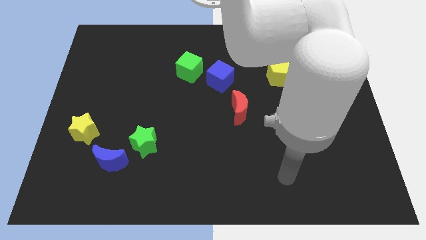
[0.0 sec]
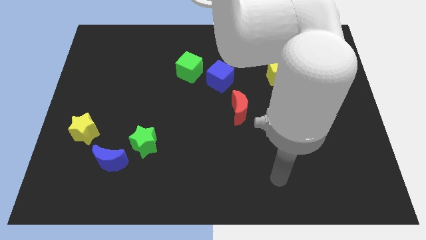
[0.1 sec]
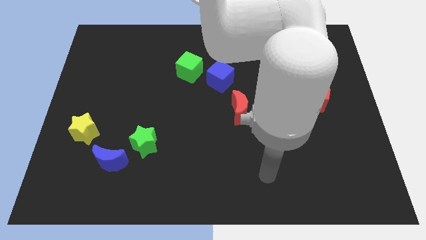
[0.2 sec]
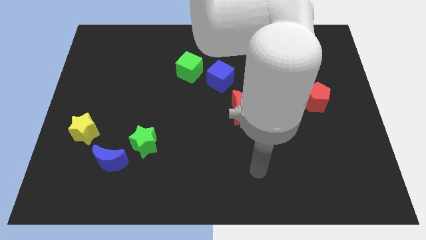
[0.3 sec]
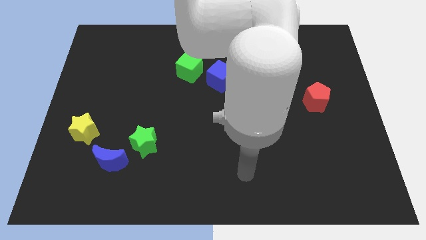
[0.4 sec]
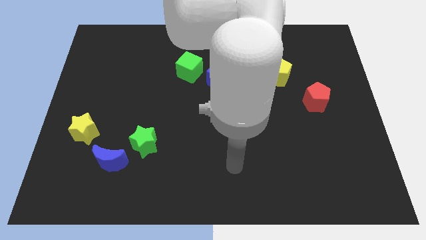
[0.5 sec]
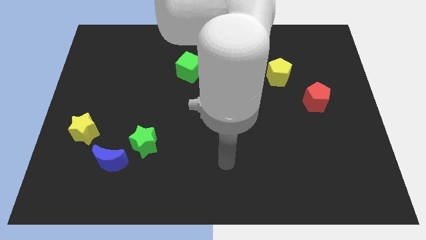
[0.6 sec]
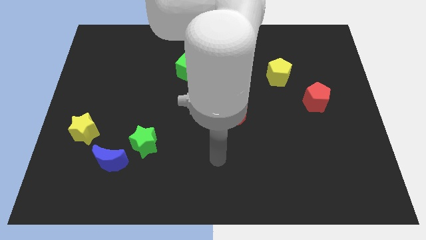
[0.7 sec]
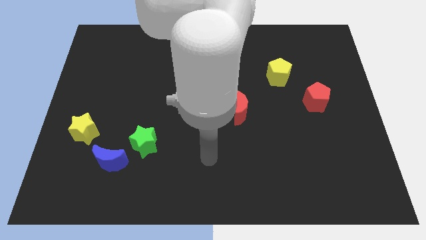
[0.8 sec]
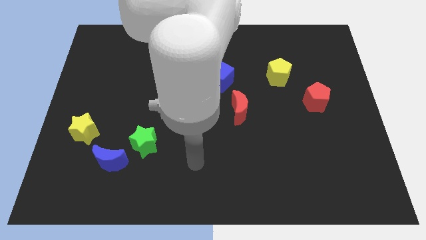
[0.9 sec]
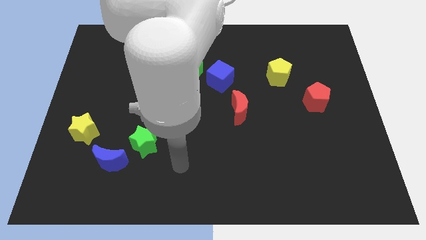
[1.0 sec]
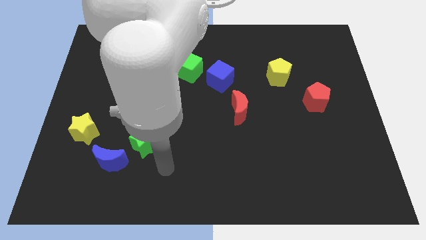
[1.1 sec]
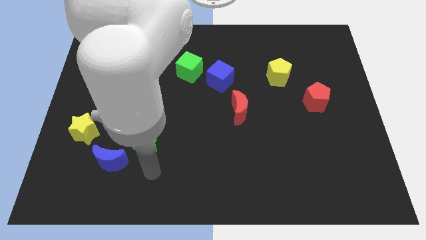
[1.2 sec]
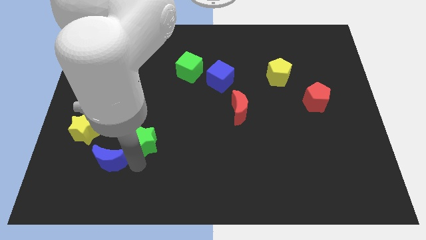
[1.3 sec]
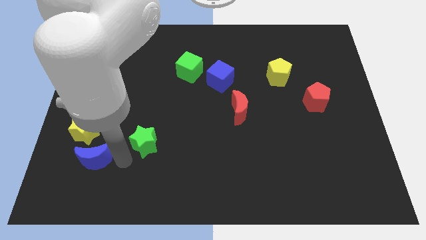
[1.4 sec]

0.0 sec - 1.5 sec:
pull the green star apart from the blue moon

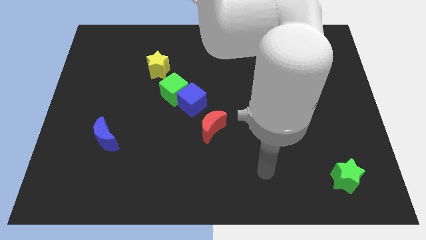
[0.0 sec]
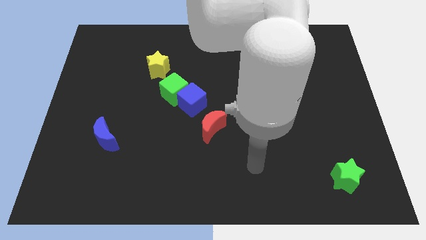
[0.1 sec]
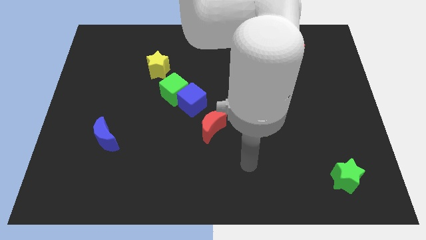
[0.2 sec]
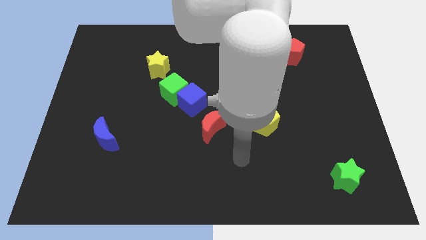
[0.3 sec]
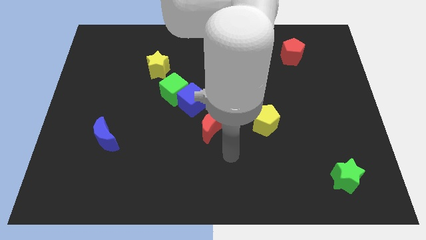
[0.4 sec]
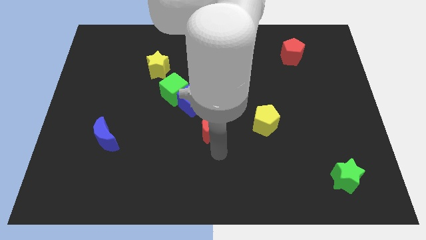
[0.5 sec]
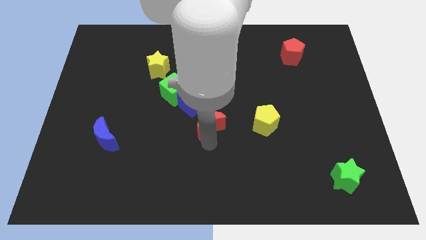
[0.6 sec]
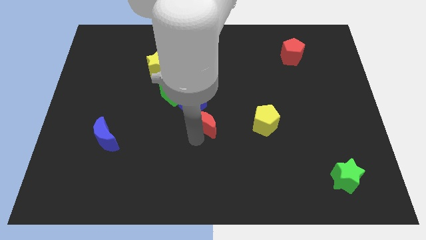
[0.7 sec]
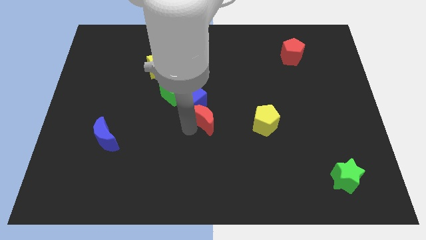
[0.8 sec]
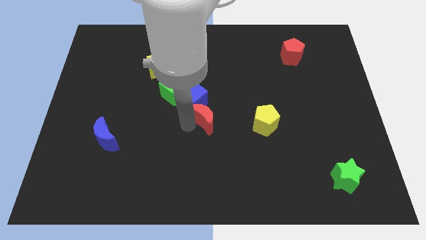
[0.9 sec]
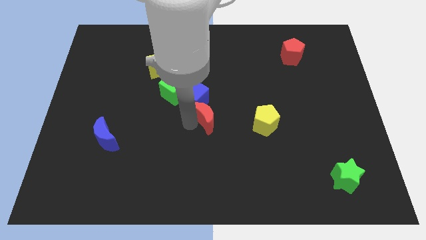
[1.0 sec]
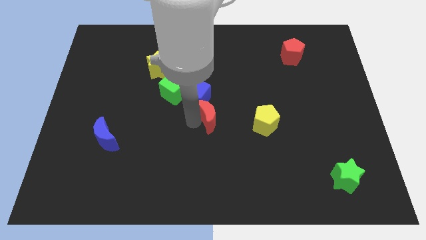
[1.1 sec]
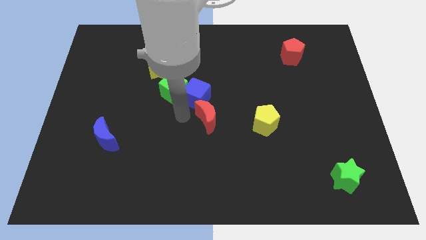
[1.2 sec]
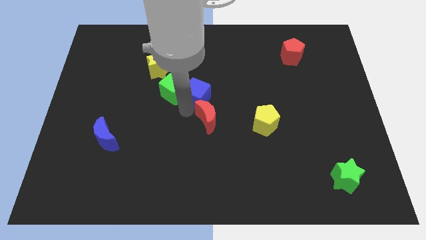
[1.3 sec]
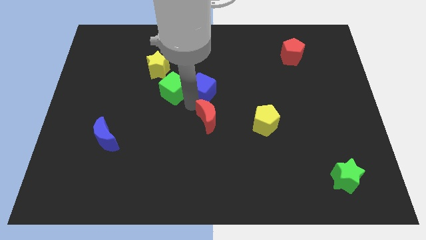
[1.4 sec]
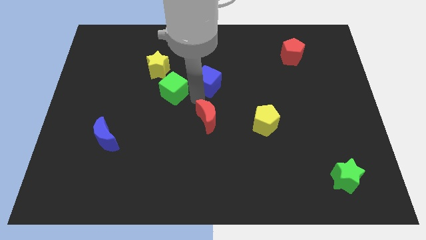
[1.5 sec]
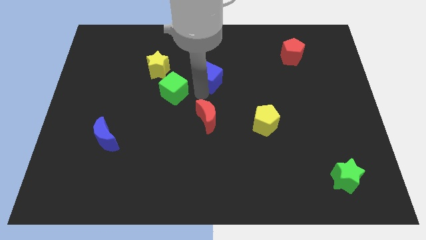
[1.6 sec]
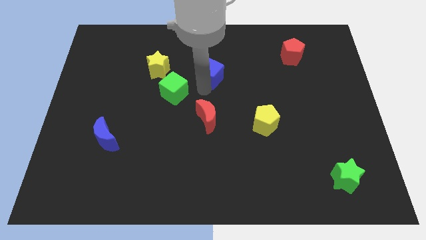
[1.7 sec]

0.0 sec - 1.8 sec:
pull the blue cube apart from the green cube and red moon

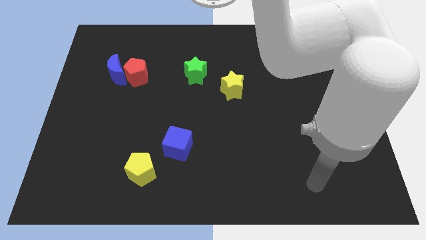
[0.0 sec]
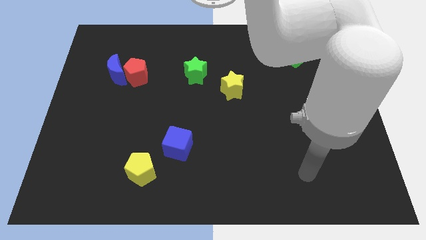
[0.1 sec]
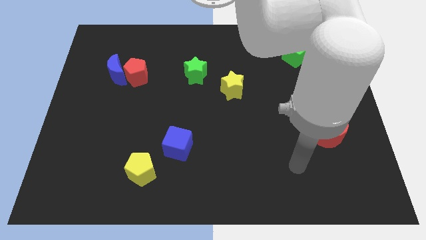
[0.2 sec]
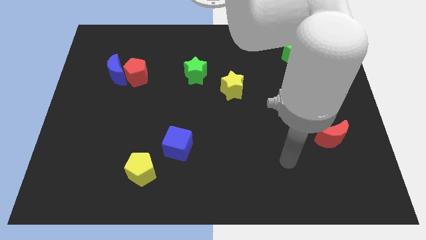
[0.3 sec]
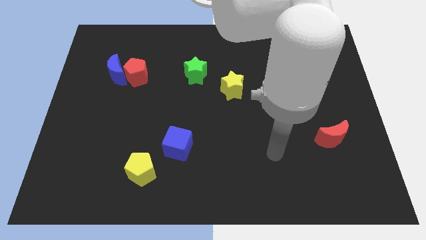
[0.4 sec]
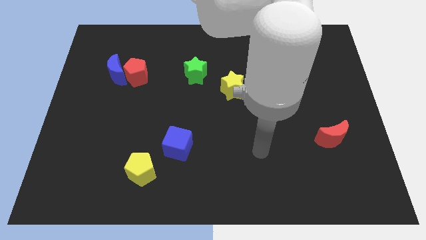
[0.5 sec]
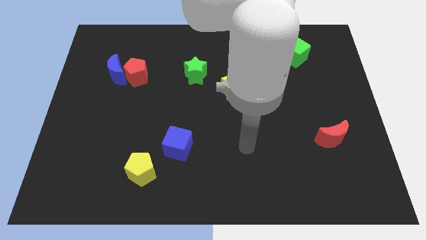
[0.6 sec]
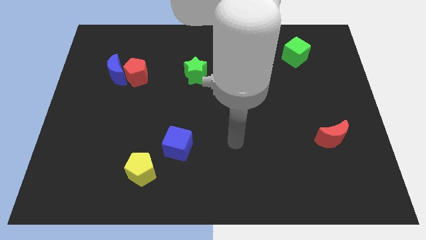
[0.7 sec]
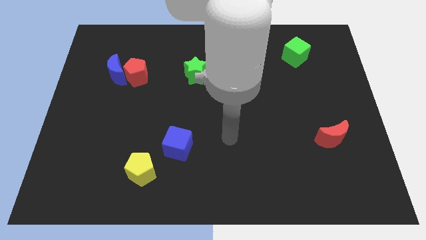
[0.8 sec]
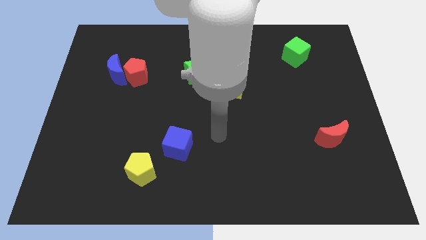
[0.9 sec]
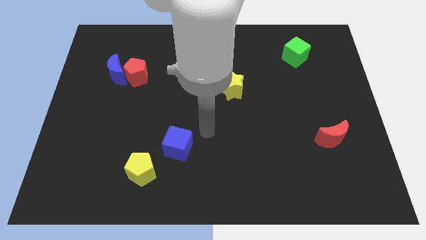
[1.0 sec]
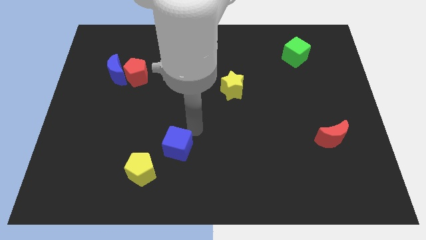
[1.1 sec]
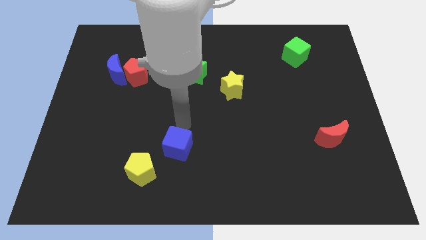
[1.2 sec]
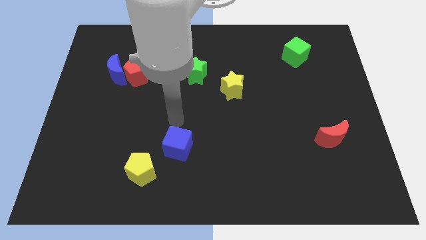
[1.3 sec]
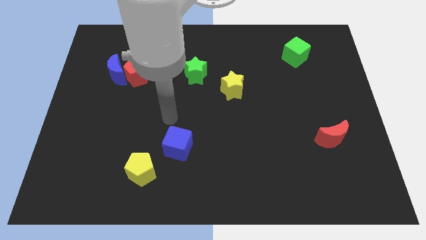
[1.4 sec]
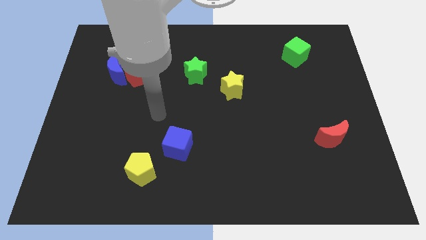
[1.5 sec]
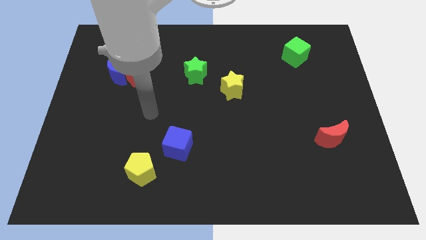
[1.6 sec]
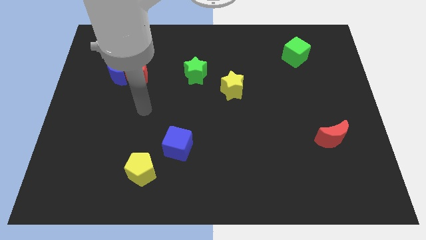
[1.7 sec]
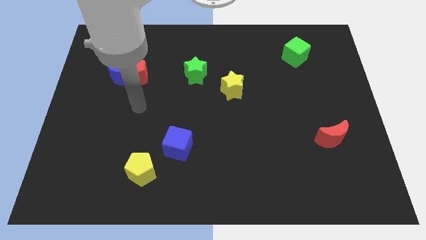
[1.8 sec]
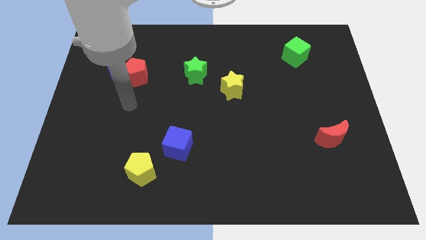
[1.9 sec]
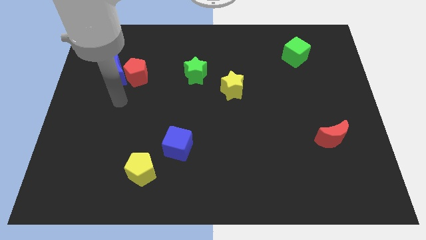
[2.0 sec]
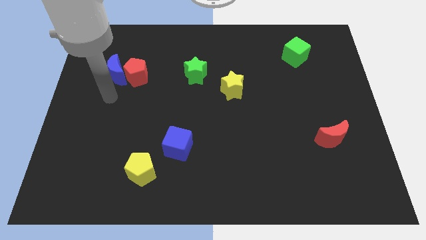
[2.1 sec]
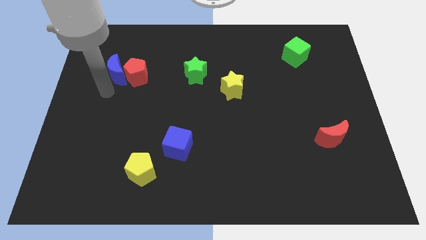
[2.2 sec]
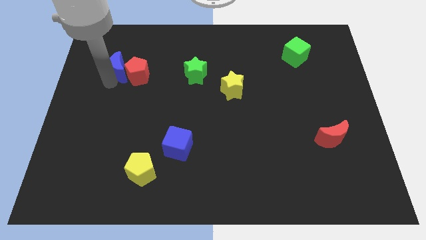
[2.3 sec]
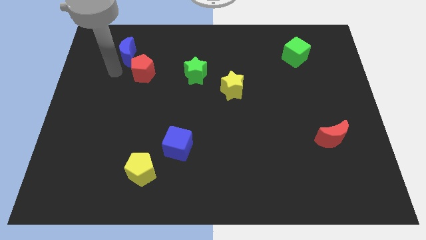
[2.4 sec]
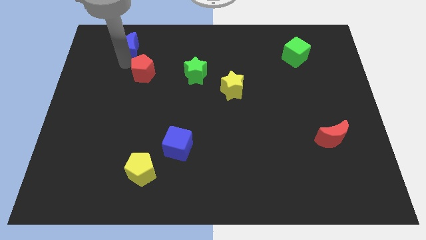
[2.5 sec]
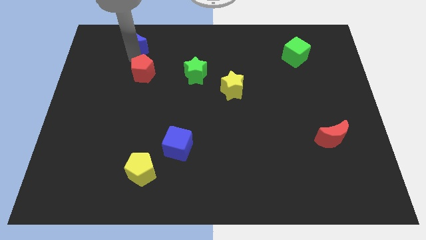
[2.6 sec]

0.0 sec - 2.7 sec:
pull the red pentagon apart from the blue moon

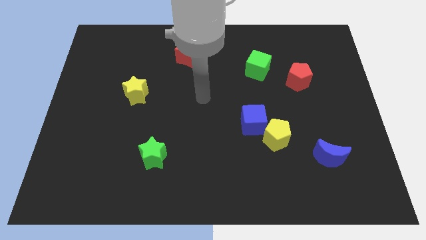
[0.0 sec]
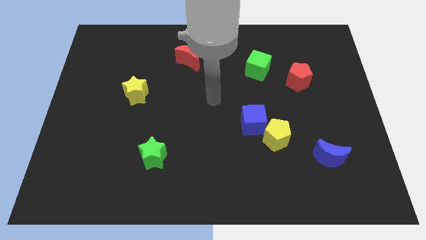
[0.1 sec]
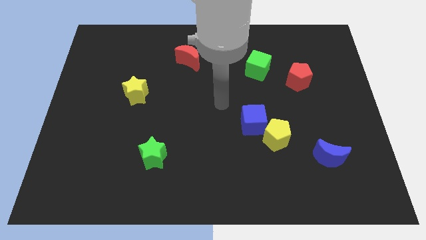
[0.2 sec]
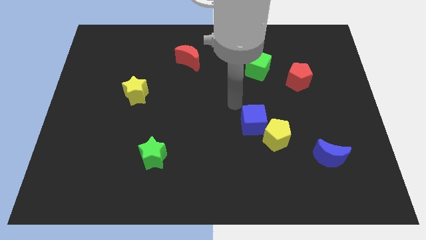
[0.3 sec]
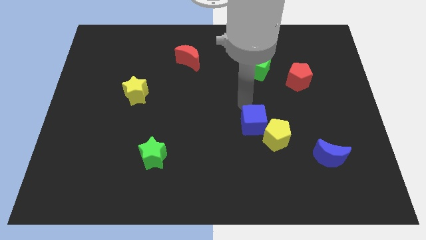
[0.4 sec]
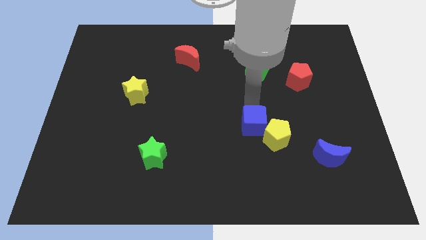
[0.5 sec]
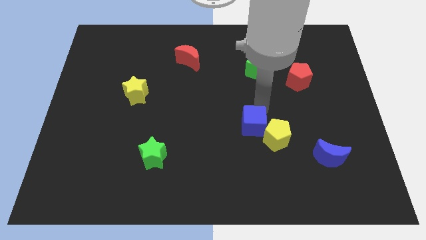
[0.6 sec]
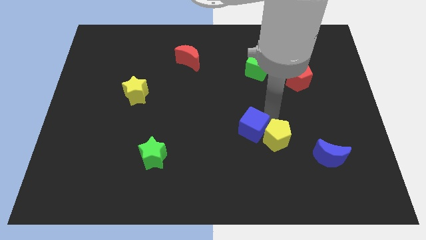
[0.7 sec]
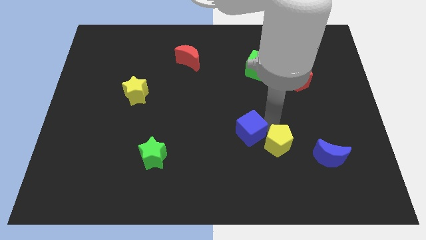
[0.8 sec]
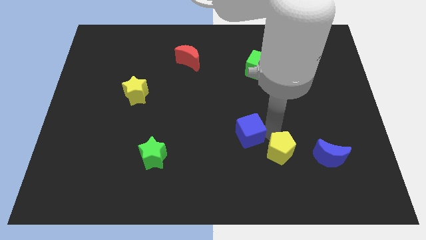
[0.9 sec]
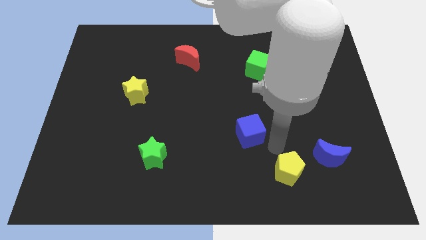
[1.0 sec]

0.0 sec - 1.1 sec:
separate the blue cube from the yellow pentagon

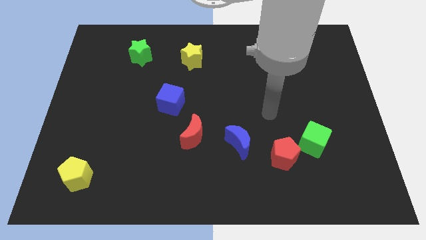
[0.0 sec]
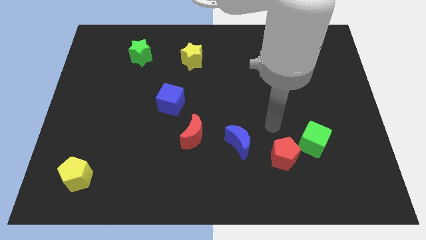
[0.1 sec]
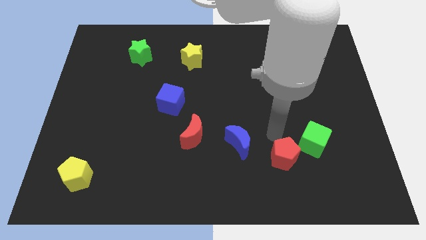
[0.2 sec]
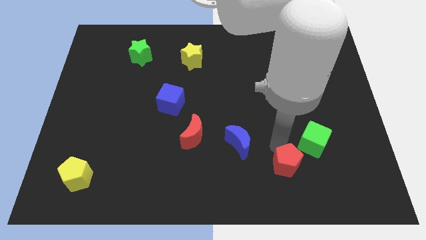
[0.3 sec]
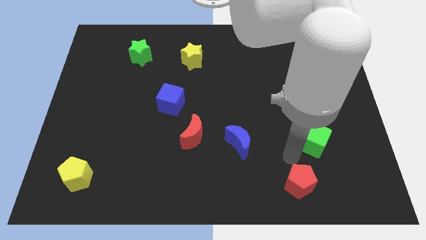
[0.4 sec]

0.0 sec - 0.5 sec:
pull the green cube apart from the red pentagon

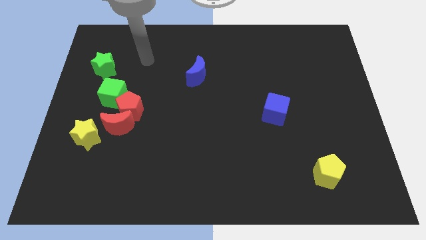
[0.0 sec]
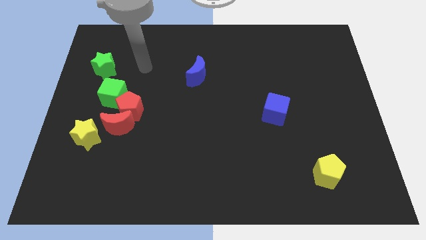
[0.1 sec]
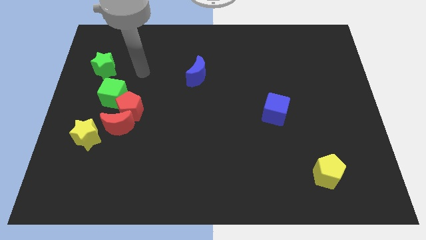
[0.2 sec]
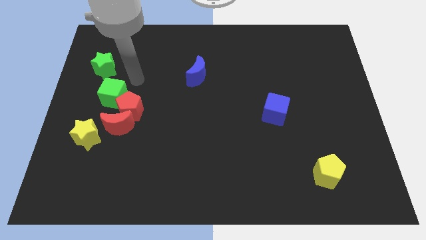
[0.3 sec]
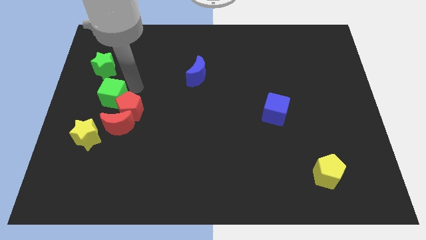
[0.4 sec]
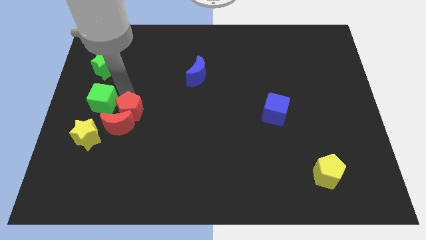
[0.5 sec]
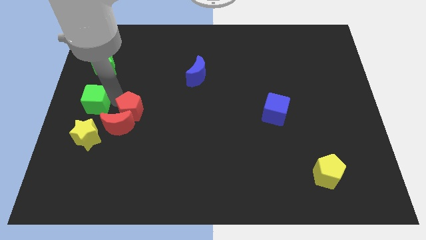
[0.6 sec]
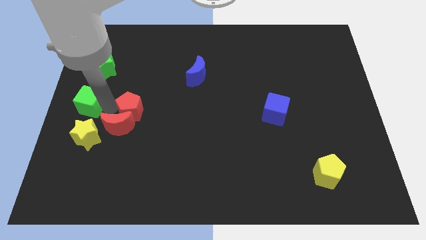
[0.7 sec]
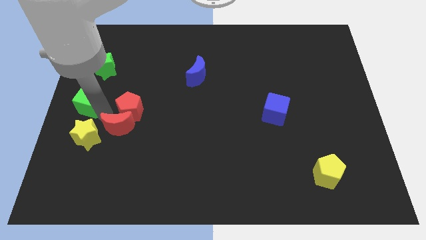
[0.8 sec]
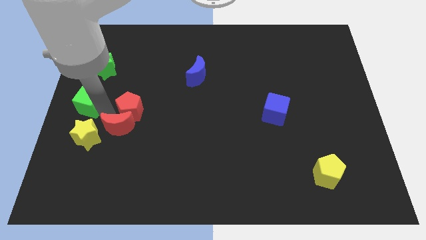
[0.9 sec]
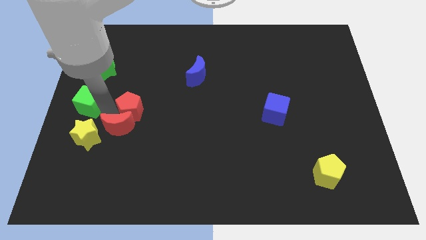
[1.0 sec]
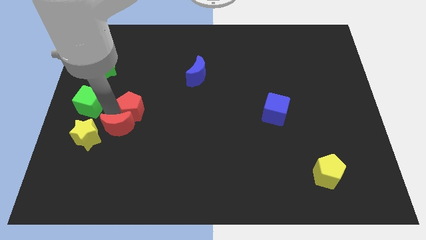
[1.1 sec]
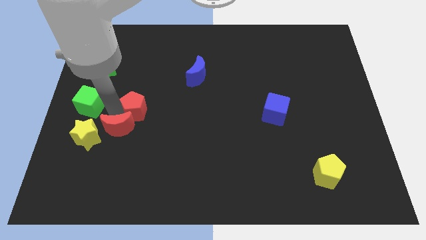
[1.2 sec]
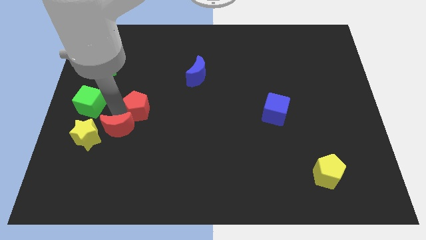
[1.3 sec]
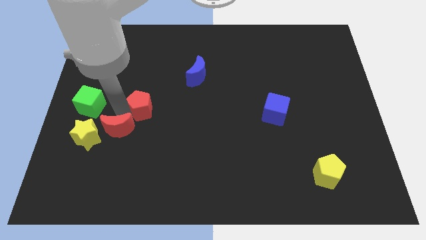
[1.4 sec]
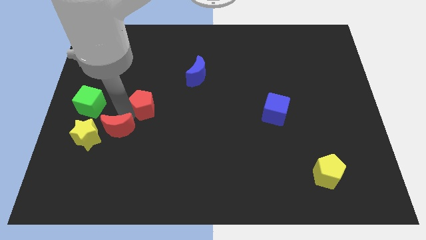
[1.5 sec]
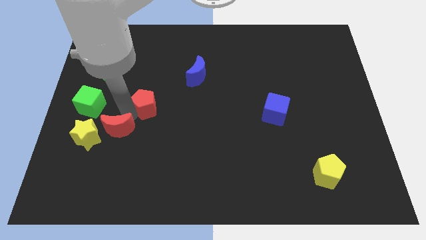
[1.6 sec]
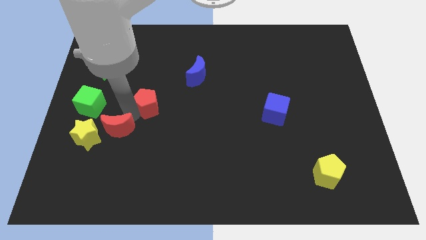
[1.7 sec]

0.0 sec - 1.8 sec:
pull the red pentagon apart from the red moon and green cube
